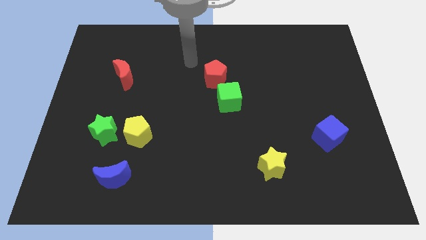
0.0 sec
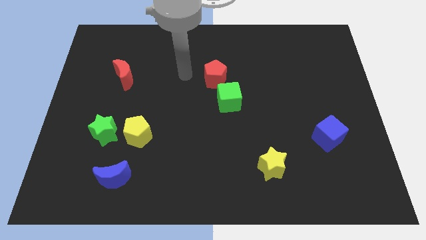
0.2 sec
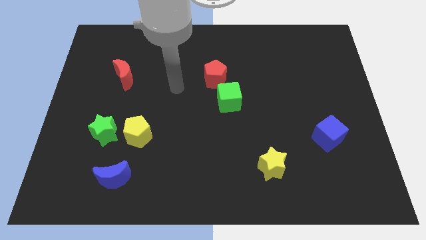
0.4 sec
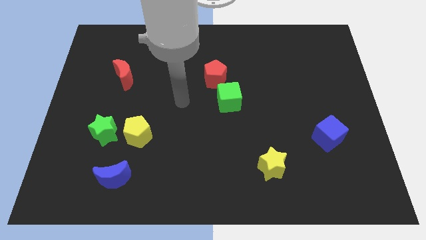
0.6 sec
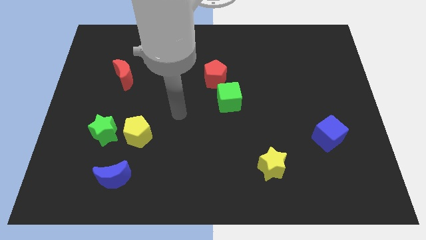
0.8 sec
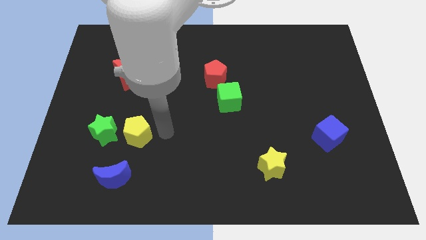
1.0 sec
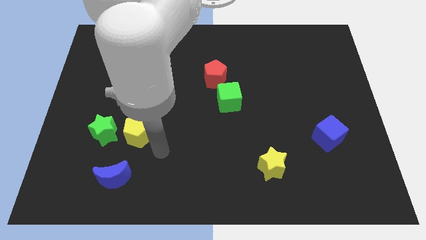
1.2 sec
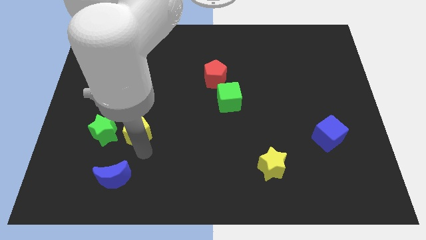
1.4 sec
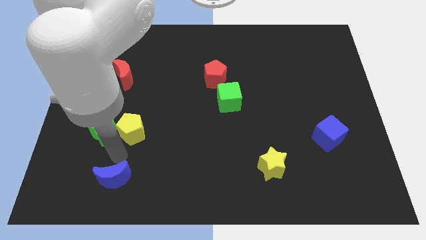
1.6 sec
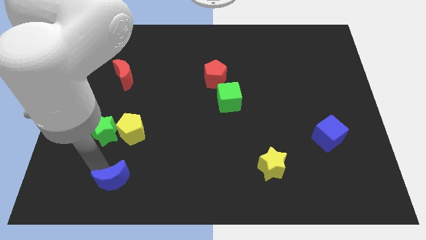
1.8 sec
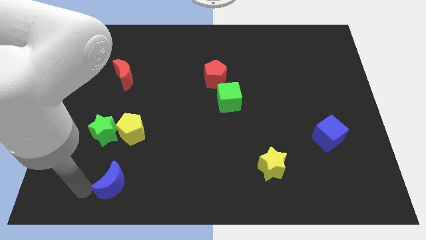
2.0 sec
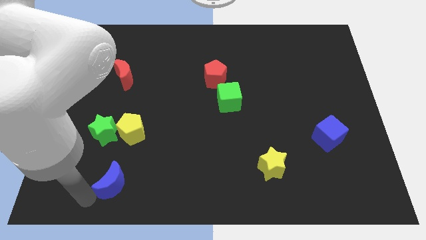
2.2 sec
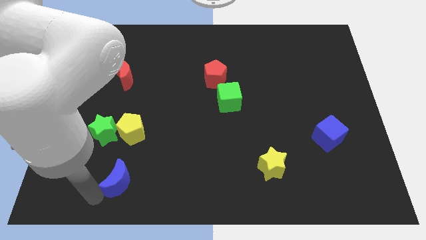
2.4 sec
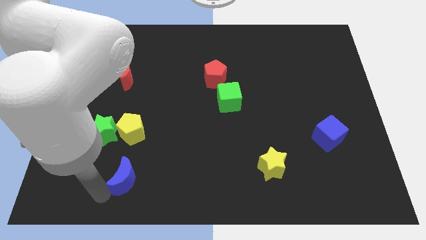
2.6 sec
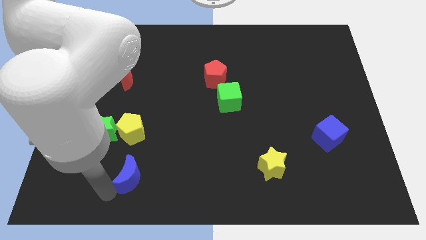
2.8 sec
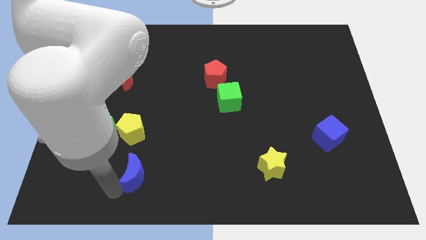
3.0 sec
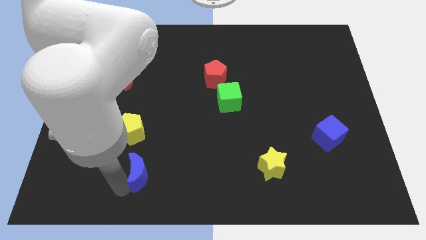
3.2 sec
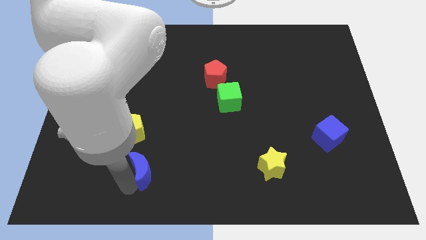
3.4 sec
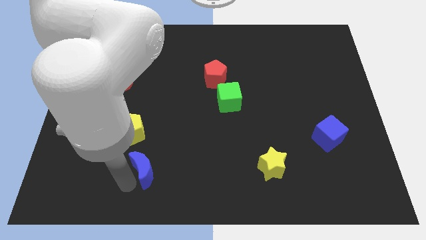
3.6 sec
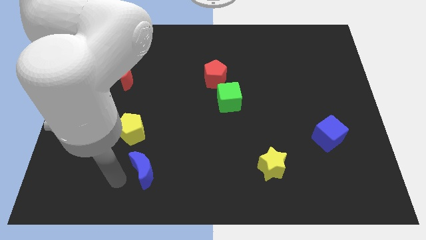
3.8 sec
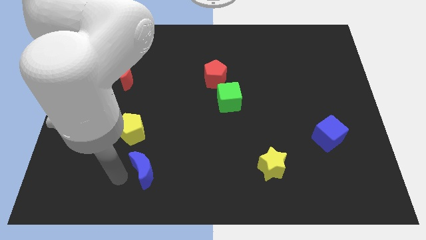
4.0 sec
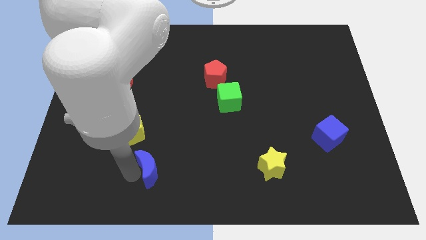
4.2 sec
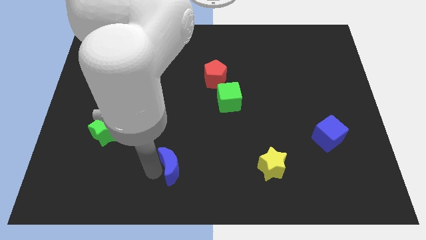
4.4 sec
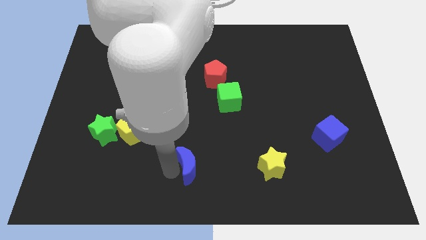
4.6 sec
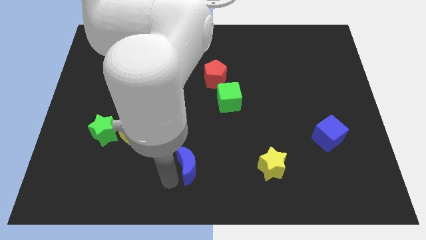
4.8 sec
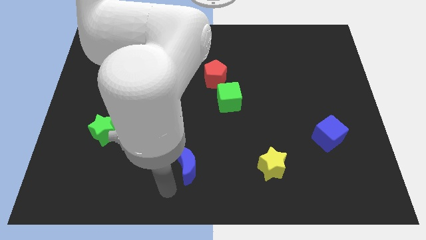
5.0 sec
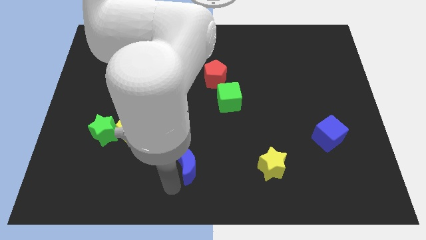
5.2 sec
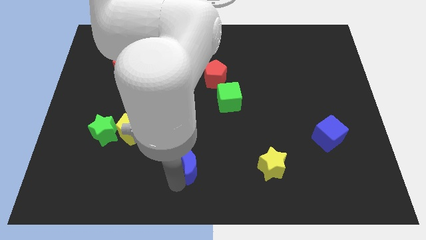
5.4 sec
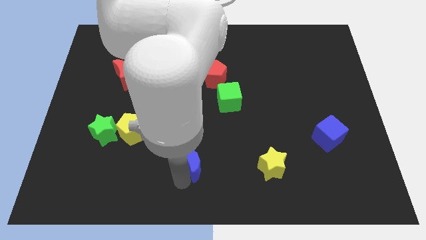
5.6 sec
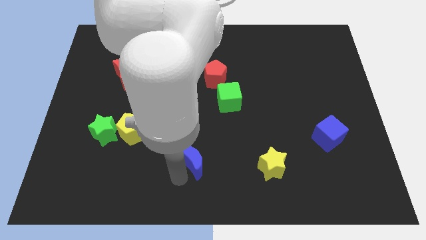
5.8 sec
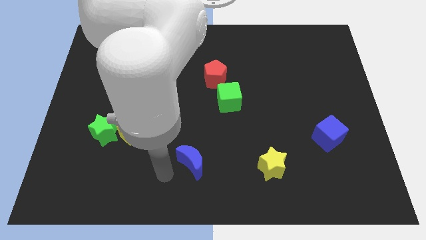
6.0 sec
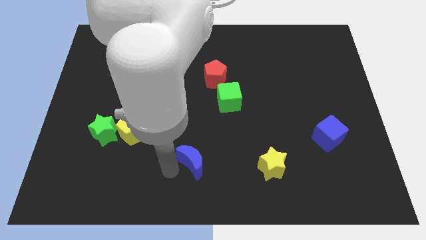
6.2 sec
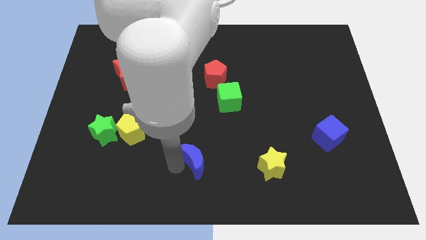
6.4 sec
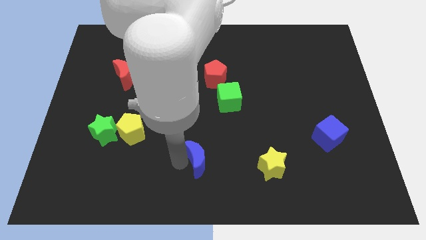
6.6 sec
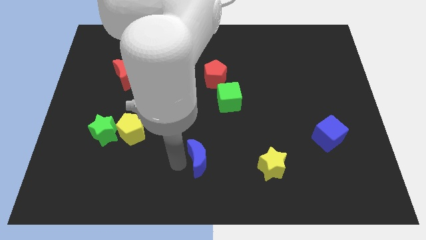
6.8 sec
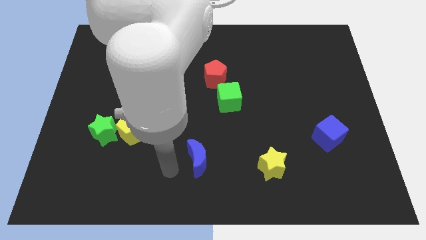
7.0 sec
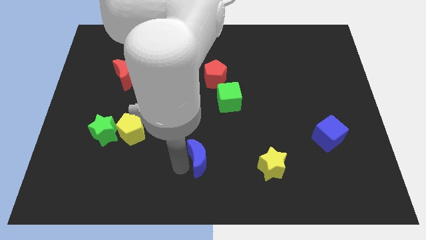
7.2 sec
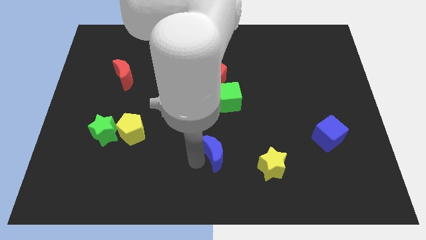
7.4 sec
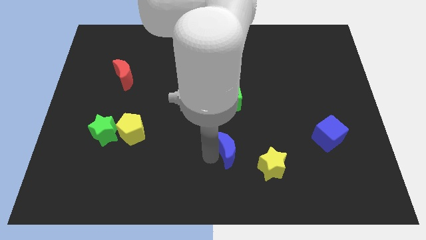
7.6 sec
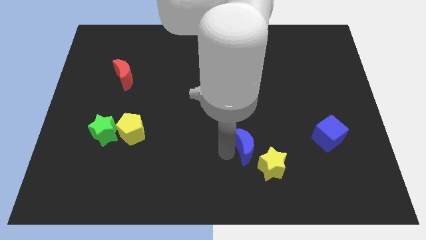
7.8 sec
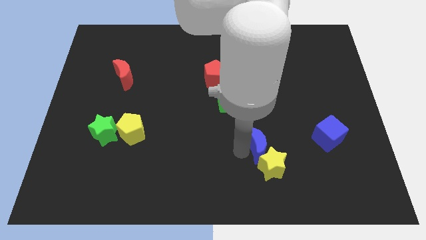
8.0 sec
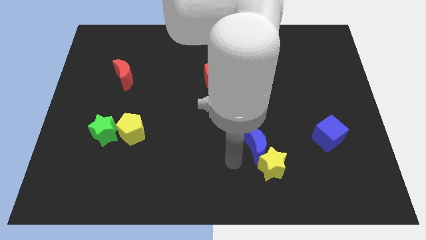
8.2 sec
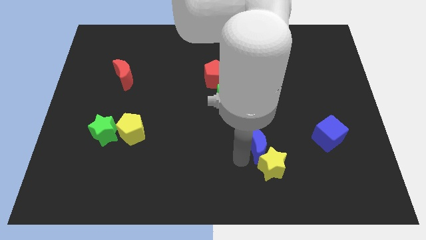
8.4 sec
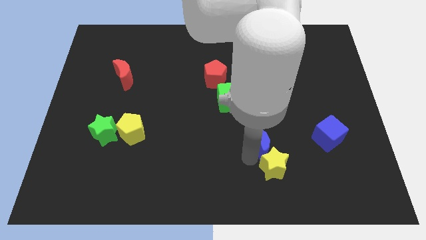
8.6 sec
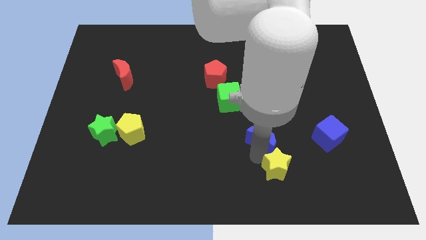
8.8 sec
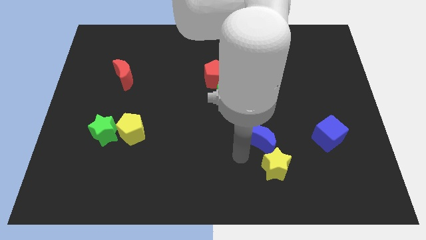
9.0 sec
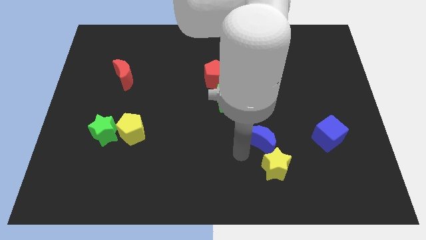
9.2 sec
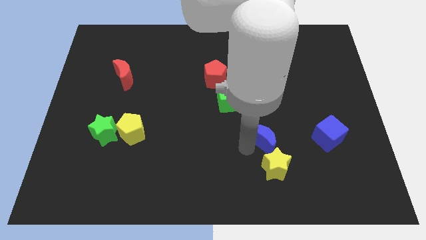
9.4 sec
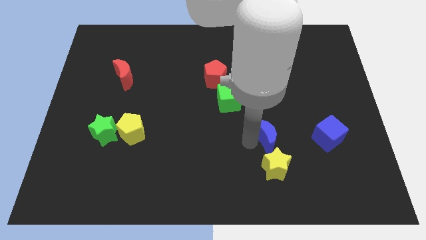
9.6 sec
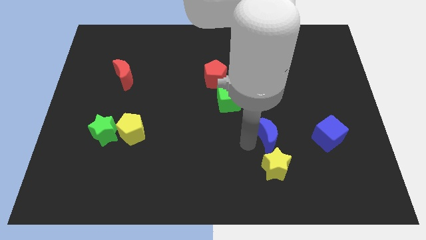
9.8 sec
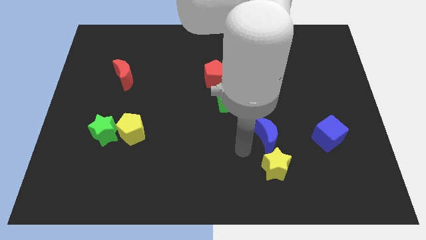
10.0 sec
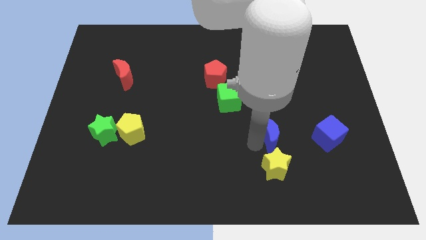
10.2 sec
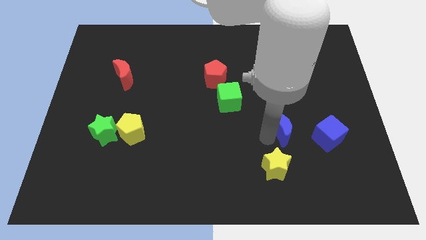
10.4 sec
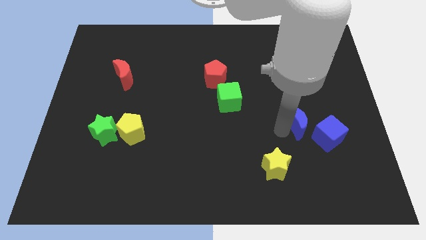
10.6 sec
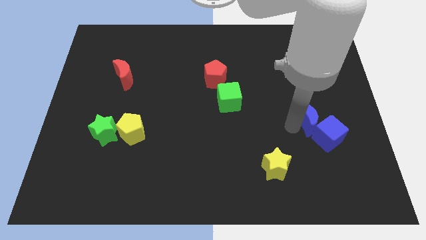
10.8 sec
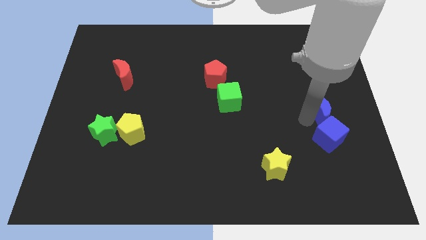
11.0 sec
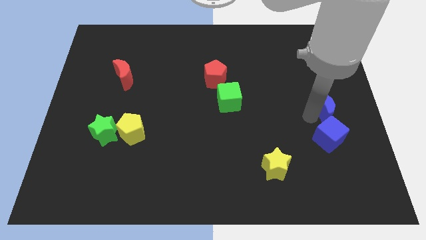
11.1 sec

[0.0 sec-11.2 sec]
slide the blue moon to the right side of the board

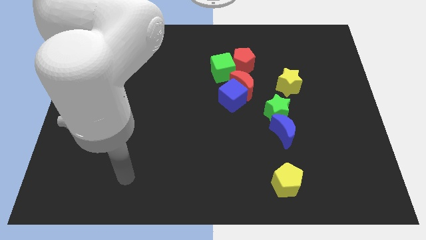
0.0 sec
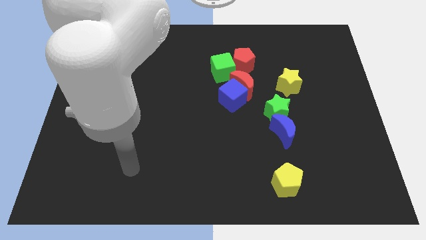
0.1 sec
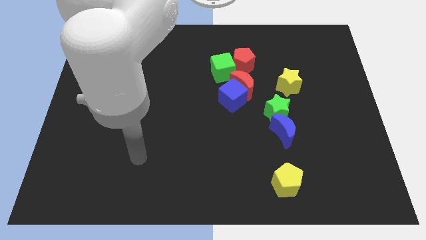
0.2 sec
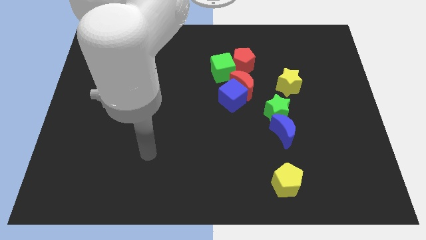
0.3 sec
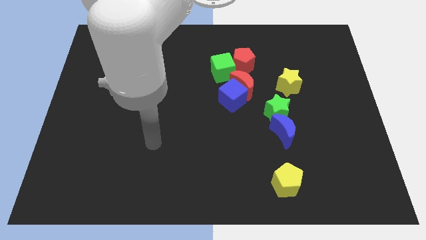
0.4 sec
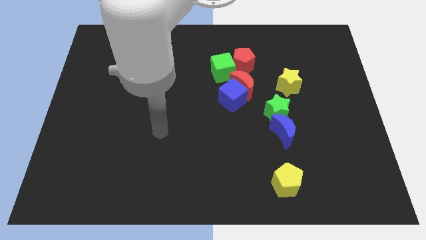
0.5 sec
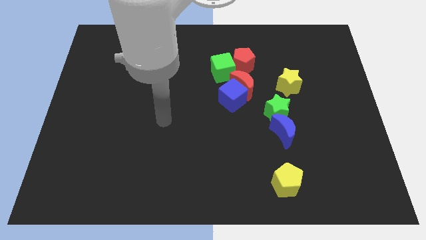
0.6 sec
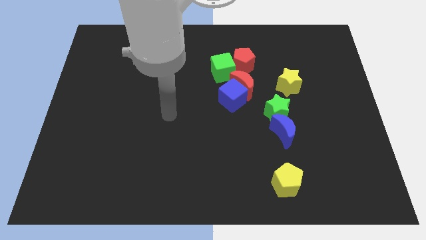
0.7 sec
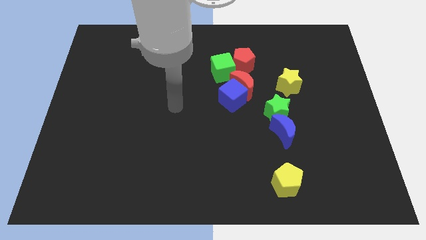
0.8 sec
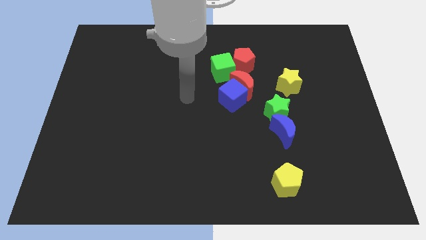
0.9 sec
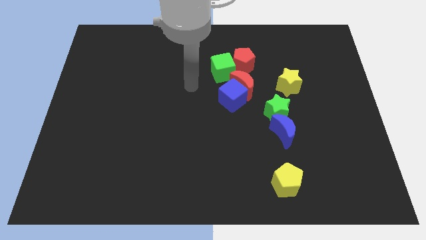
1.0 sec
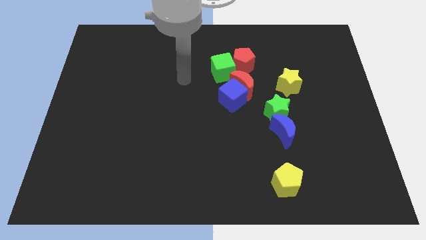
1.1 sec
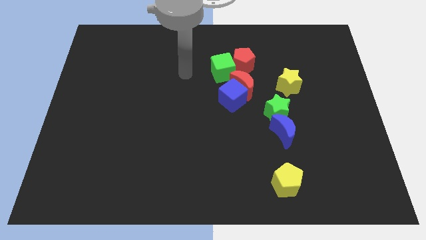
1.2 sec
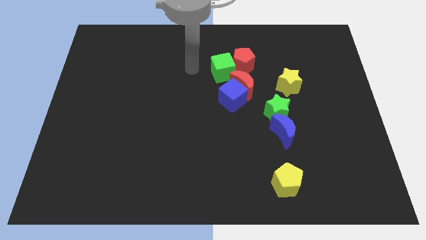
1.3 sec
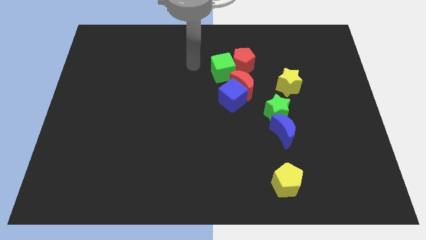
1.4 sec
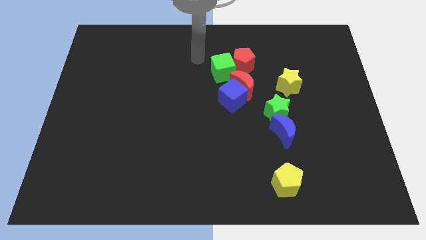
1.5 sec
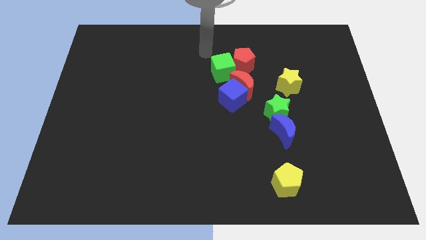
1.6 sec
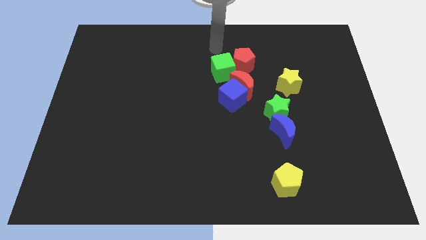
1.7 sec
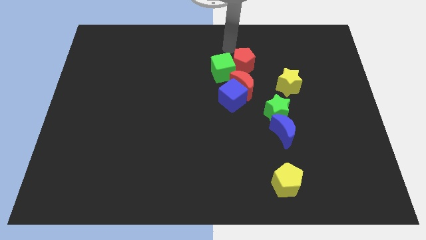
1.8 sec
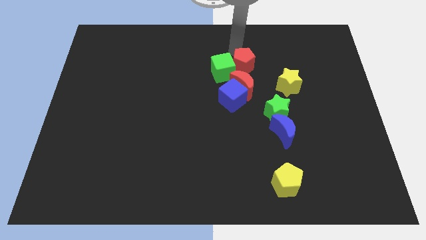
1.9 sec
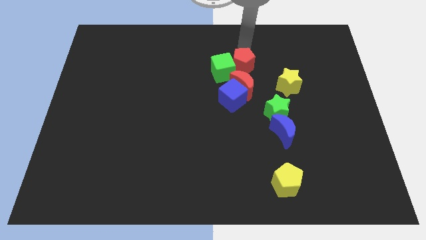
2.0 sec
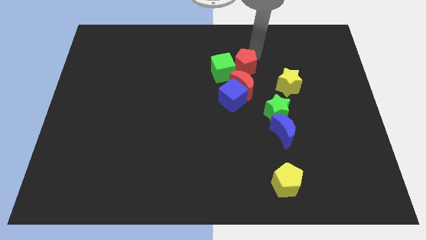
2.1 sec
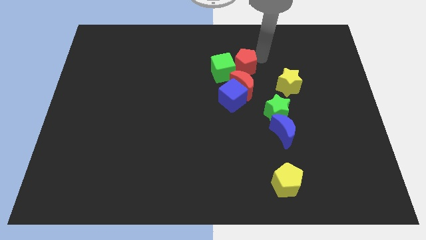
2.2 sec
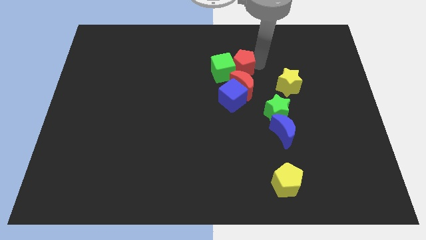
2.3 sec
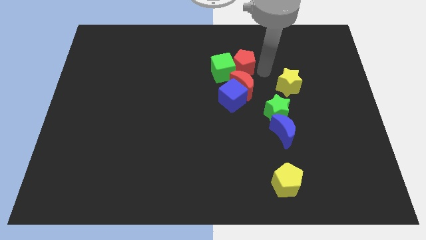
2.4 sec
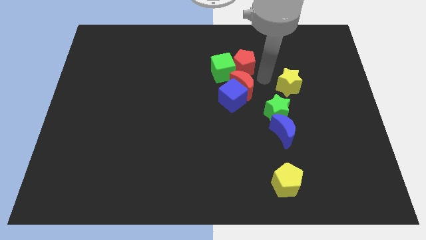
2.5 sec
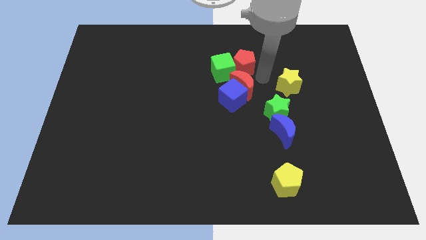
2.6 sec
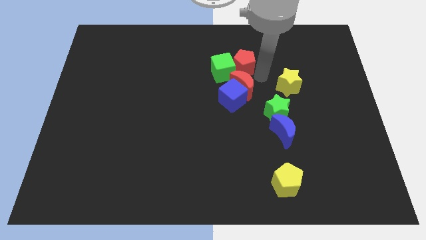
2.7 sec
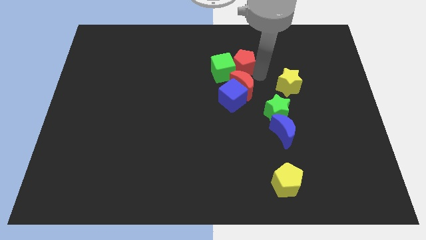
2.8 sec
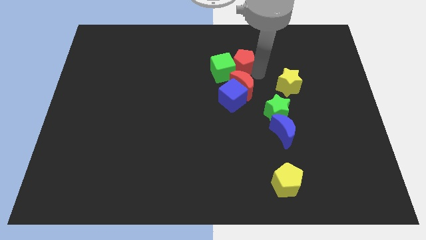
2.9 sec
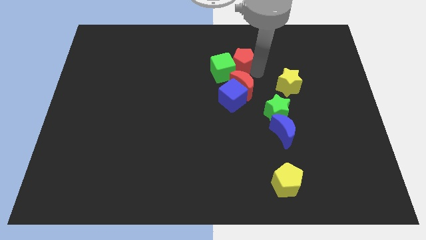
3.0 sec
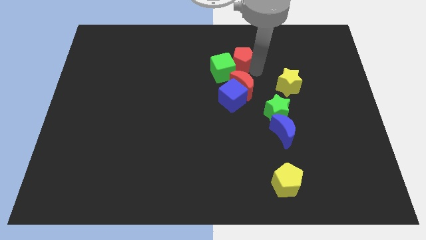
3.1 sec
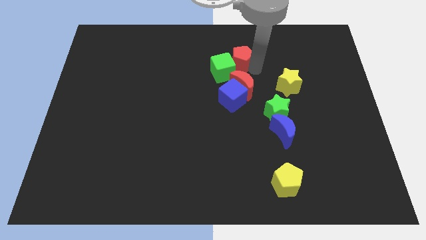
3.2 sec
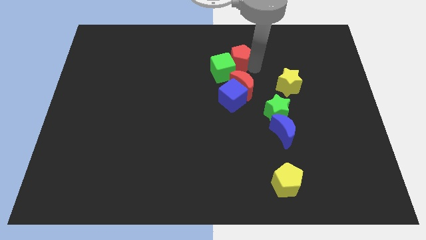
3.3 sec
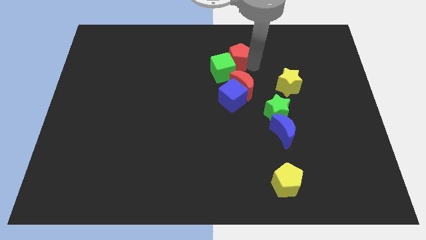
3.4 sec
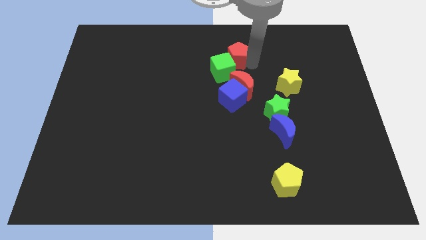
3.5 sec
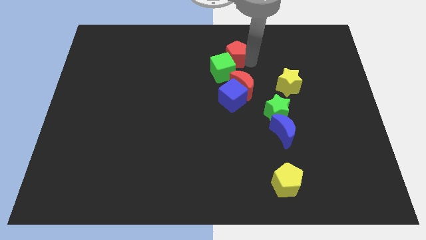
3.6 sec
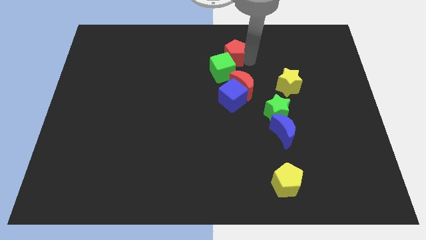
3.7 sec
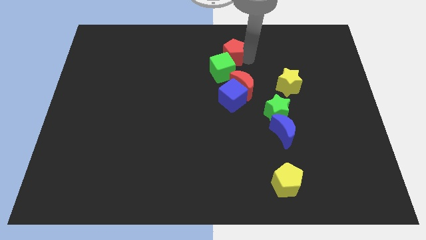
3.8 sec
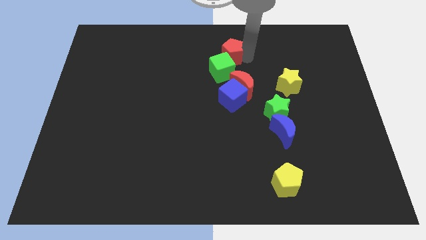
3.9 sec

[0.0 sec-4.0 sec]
move the red pentagon to the towards your base
